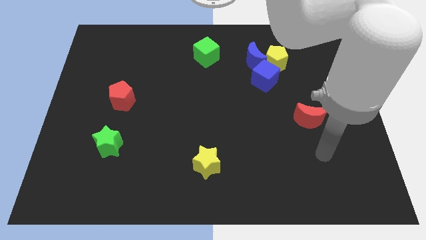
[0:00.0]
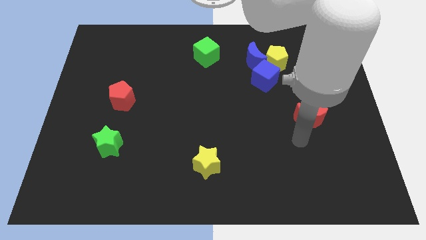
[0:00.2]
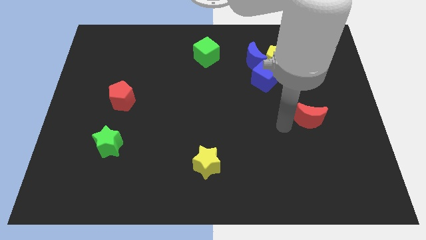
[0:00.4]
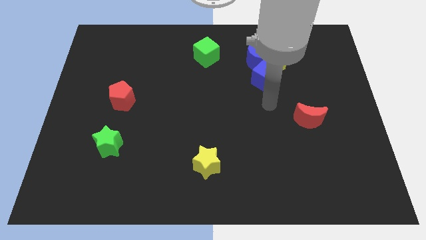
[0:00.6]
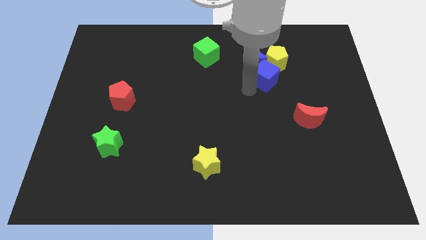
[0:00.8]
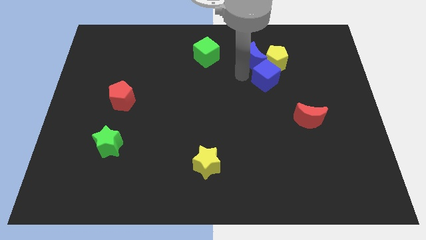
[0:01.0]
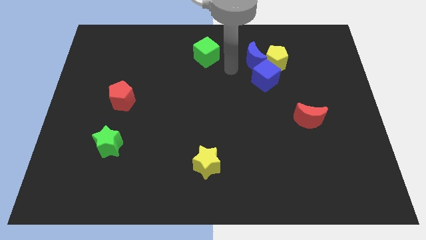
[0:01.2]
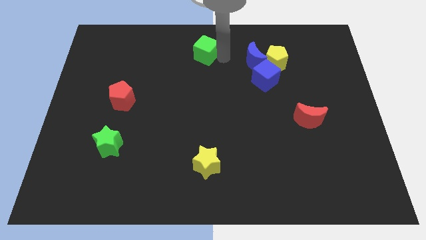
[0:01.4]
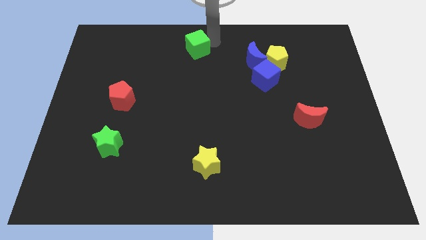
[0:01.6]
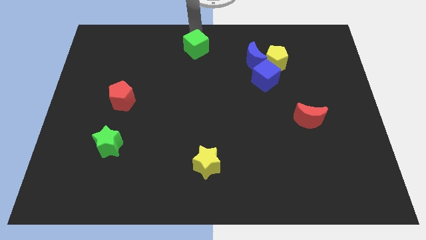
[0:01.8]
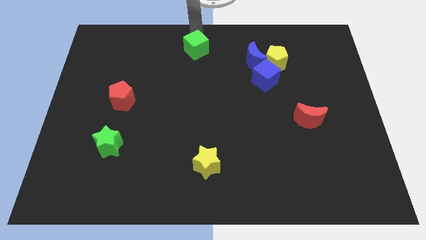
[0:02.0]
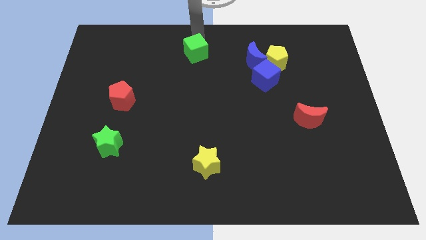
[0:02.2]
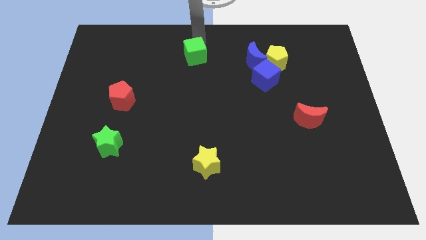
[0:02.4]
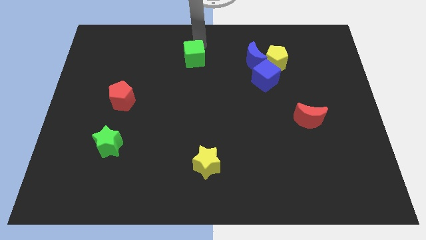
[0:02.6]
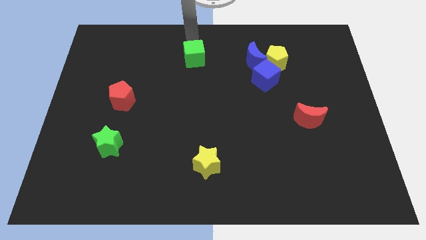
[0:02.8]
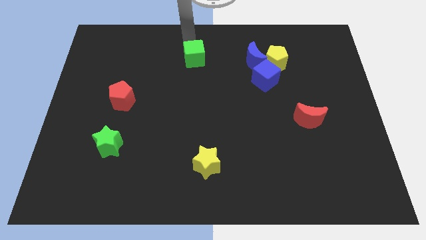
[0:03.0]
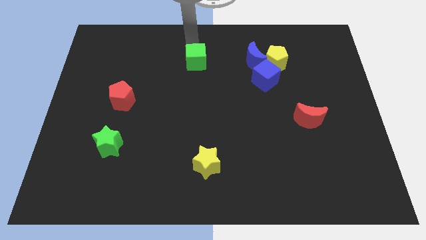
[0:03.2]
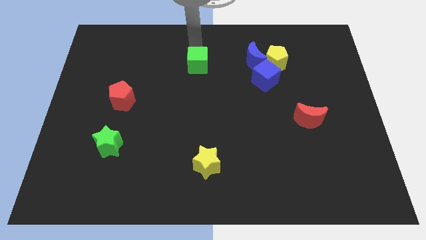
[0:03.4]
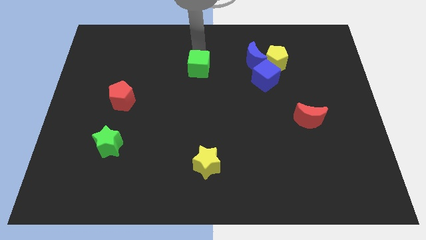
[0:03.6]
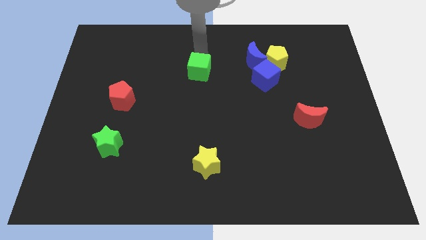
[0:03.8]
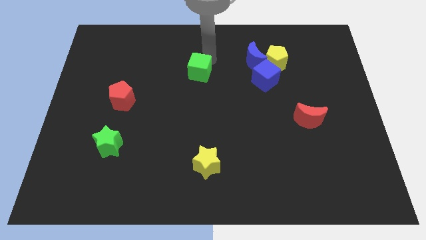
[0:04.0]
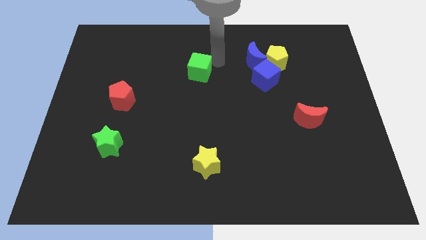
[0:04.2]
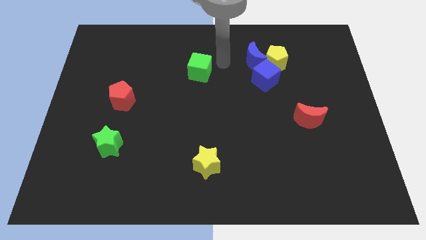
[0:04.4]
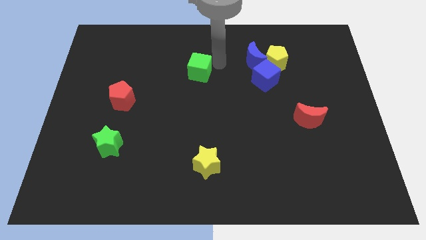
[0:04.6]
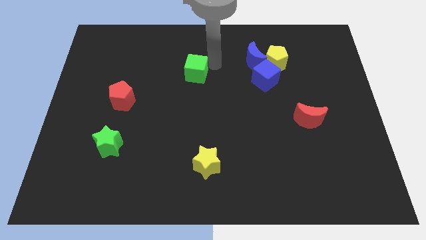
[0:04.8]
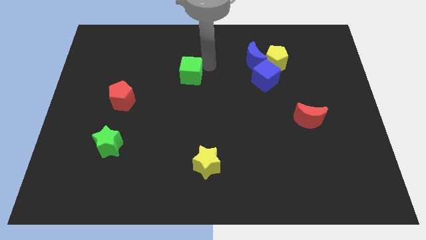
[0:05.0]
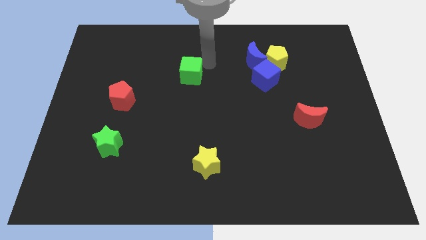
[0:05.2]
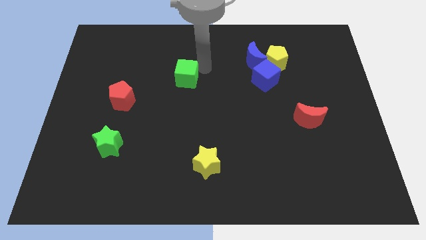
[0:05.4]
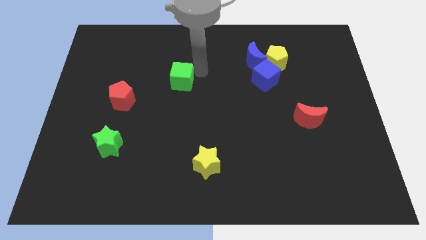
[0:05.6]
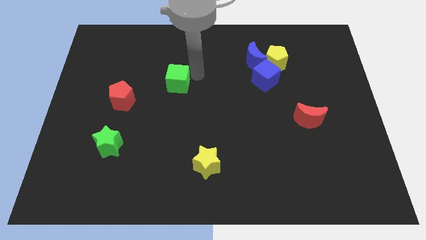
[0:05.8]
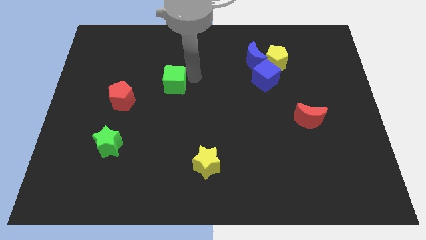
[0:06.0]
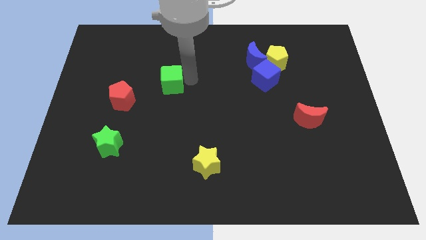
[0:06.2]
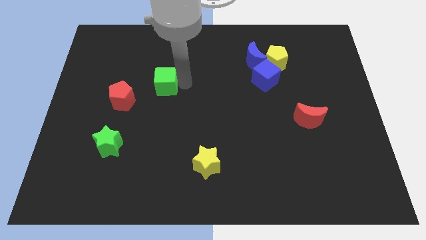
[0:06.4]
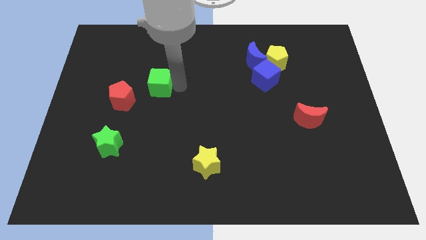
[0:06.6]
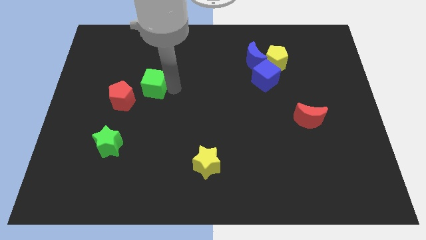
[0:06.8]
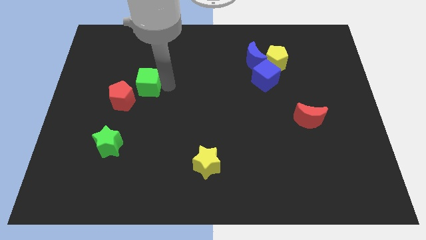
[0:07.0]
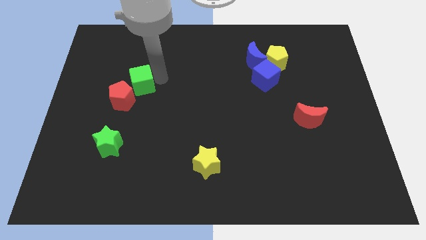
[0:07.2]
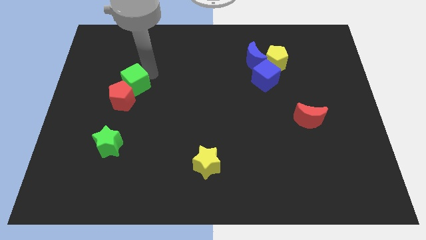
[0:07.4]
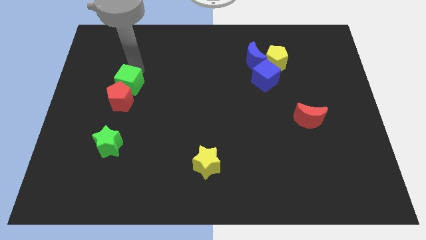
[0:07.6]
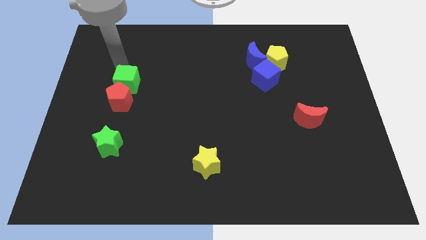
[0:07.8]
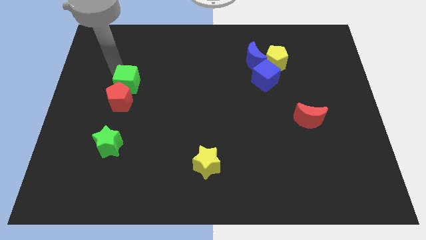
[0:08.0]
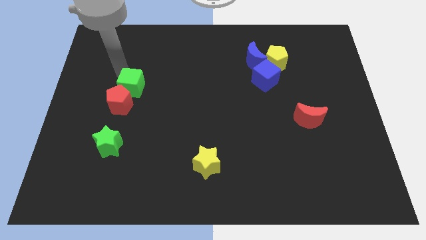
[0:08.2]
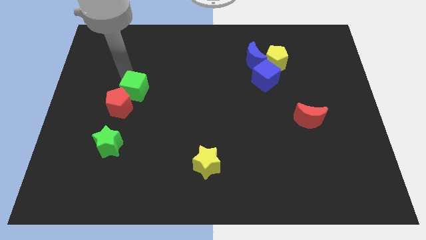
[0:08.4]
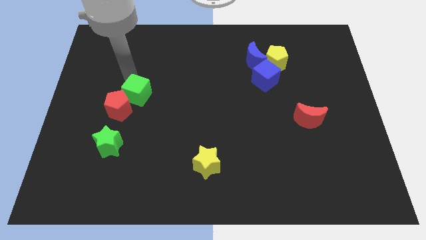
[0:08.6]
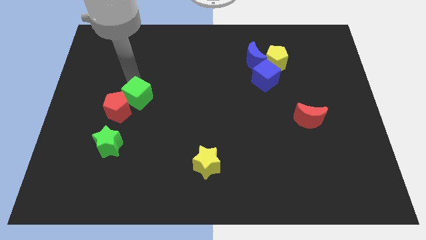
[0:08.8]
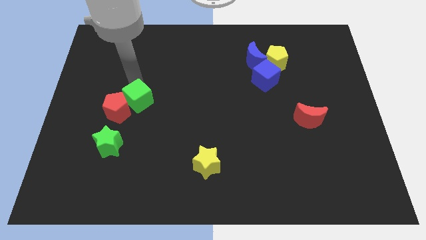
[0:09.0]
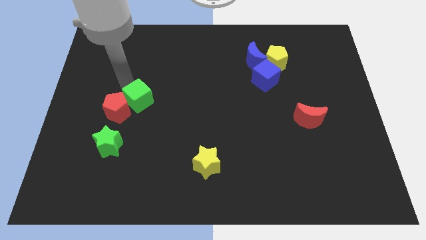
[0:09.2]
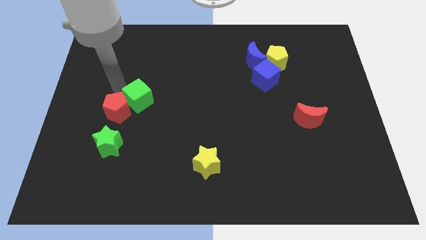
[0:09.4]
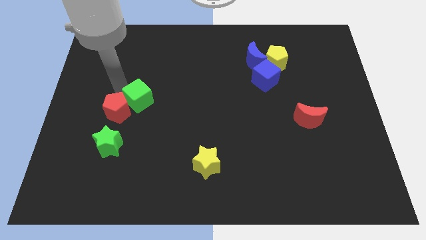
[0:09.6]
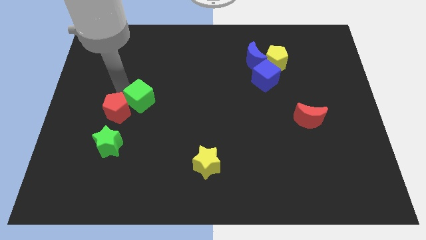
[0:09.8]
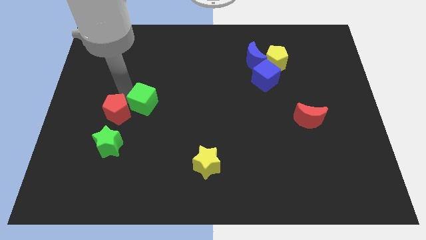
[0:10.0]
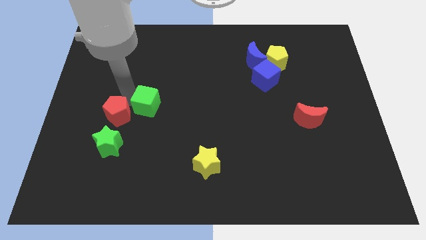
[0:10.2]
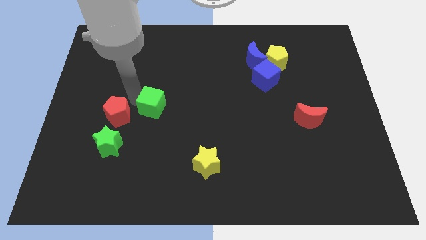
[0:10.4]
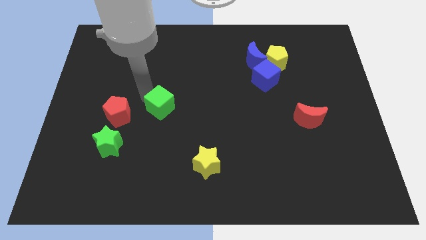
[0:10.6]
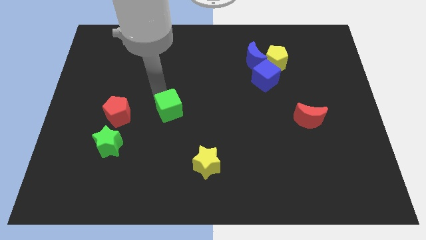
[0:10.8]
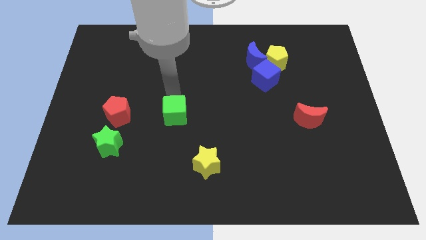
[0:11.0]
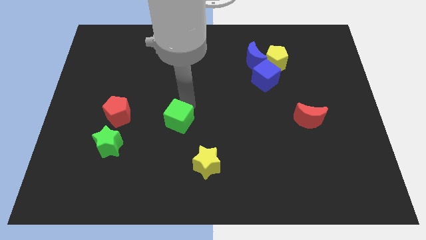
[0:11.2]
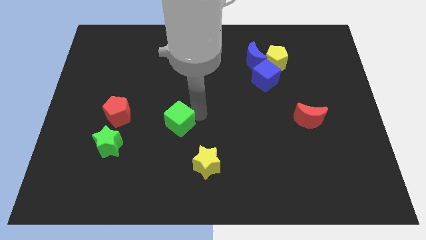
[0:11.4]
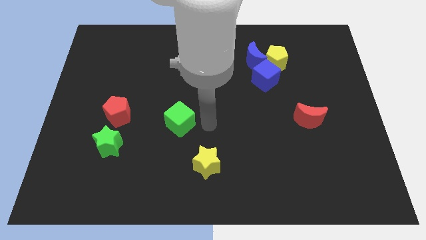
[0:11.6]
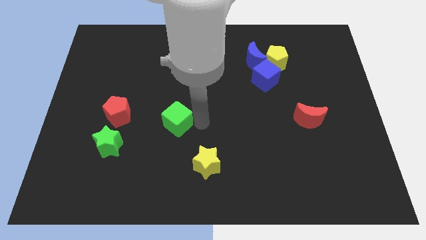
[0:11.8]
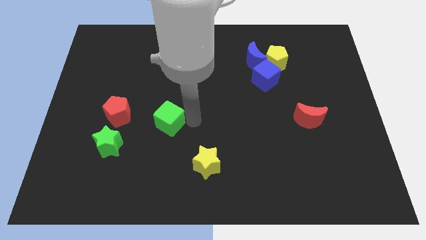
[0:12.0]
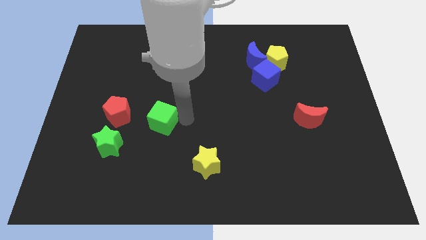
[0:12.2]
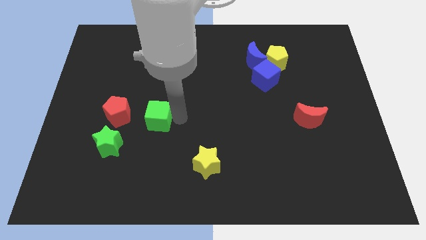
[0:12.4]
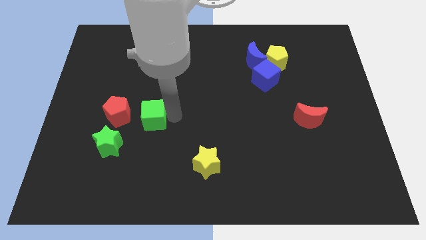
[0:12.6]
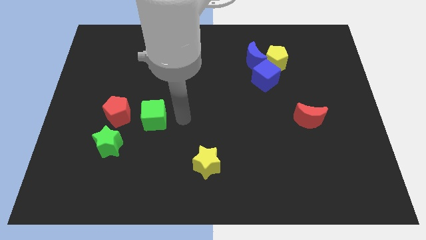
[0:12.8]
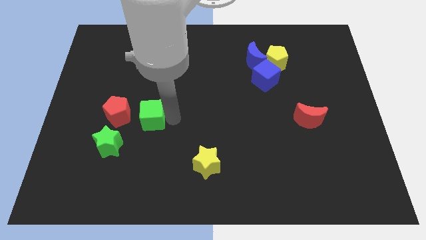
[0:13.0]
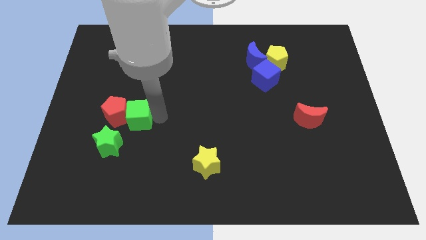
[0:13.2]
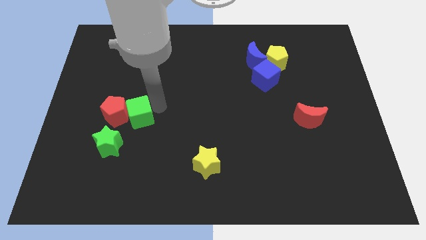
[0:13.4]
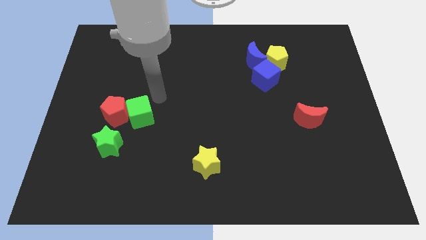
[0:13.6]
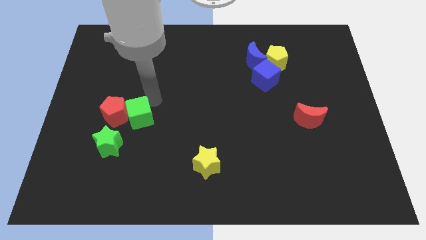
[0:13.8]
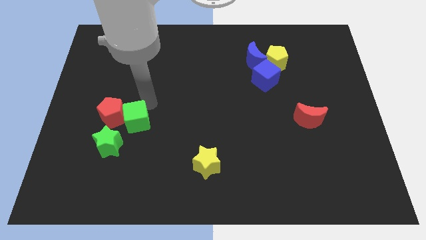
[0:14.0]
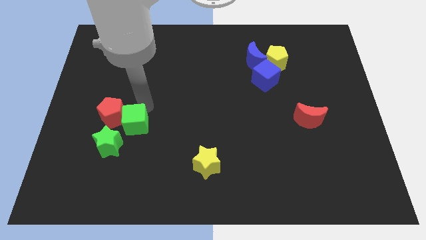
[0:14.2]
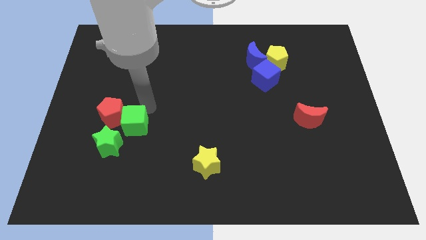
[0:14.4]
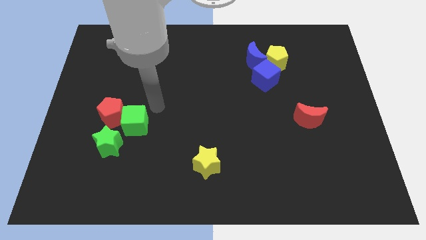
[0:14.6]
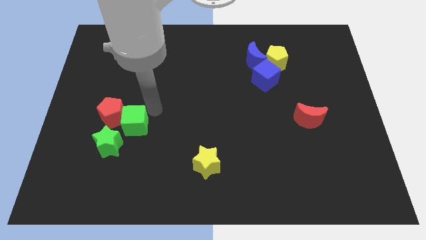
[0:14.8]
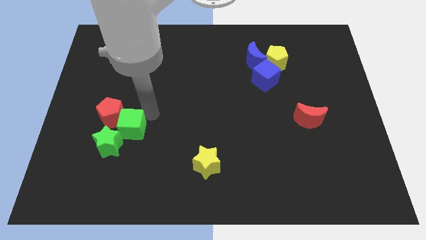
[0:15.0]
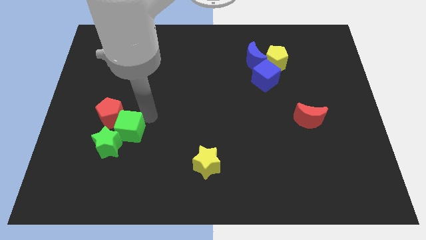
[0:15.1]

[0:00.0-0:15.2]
move the green cube to the green star

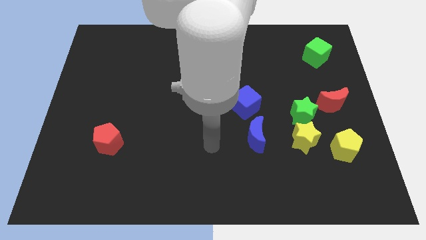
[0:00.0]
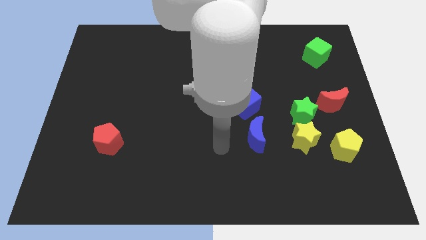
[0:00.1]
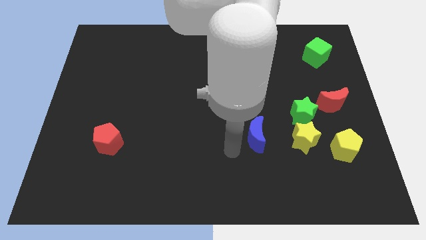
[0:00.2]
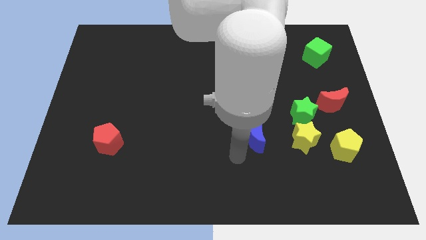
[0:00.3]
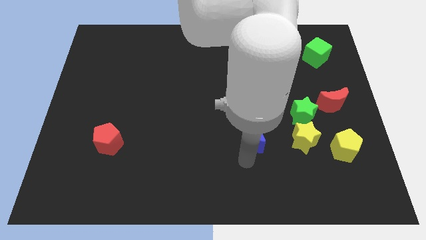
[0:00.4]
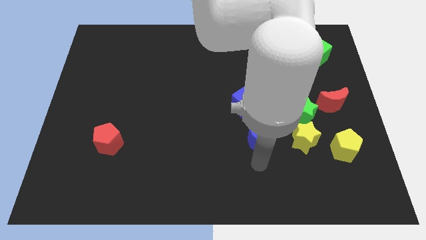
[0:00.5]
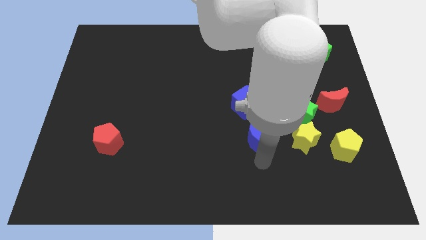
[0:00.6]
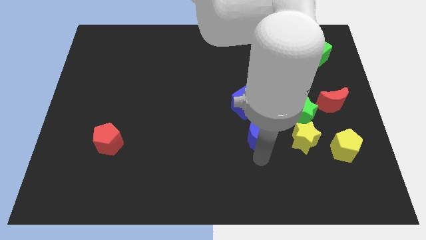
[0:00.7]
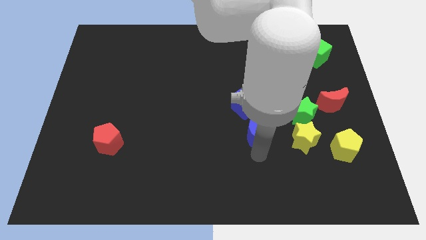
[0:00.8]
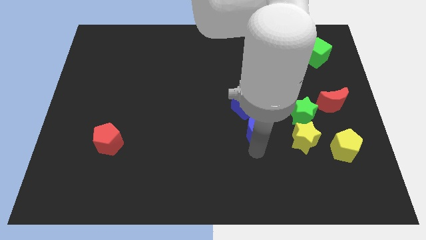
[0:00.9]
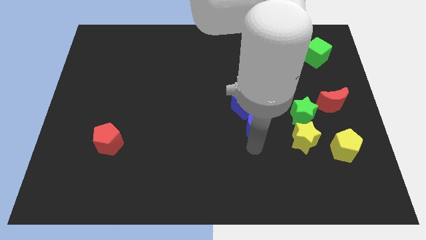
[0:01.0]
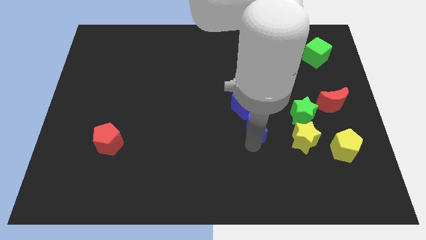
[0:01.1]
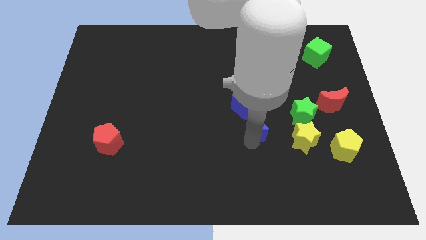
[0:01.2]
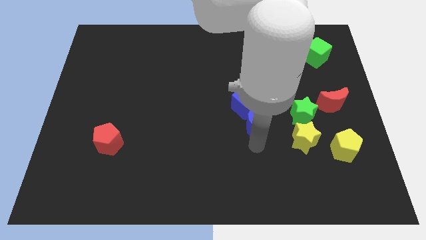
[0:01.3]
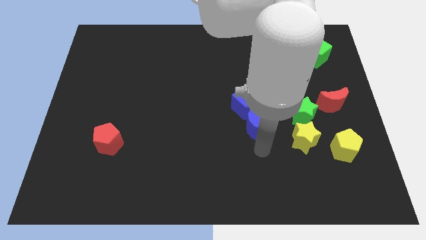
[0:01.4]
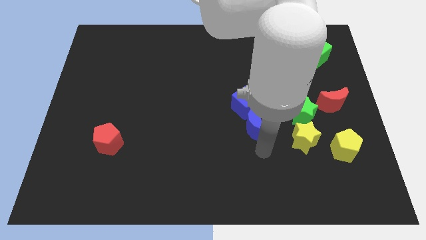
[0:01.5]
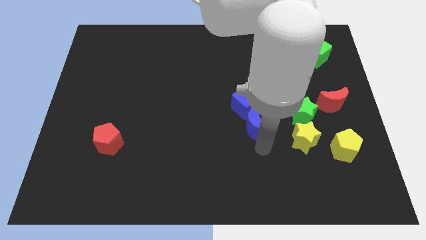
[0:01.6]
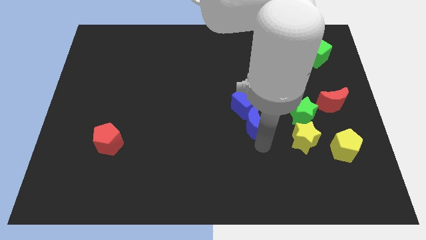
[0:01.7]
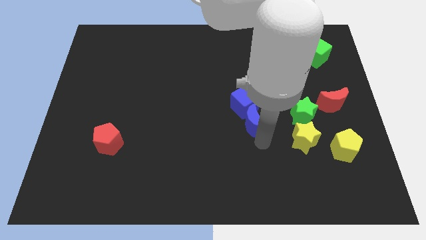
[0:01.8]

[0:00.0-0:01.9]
put the blue moon to the blue cube
